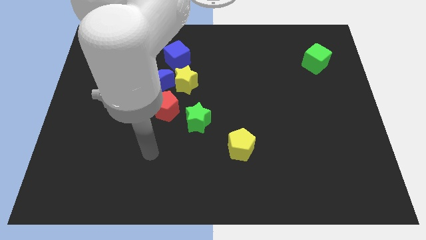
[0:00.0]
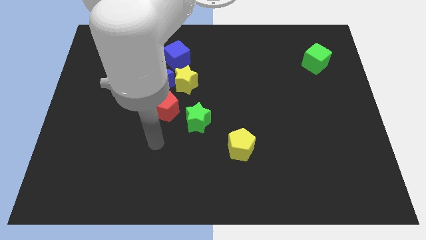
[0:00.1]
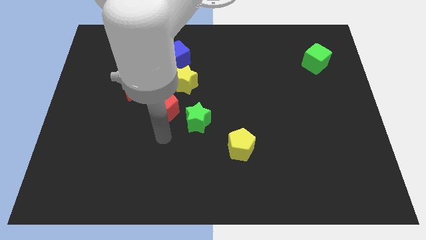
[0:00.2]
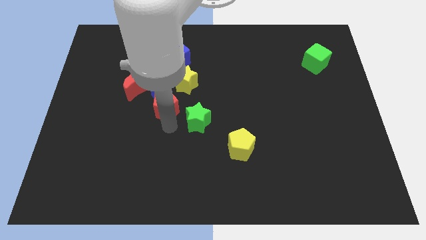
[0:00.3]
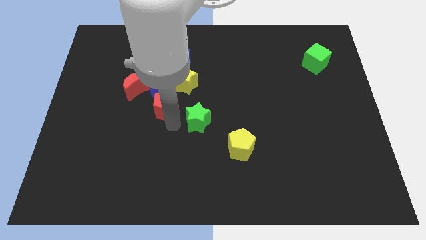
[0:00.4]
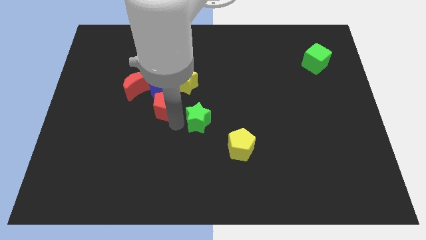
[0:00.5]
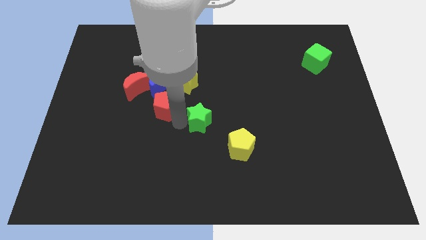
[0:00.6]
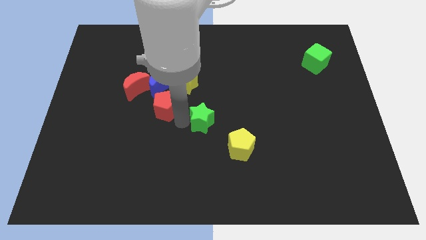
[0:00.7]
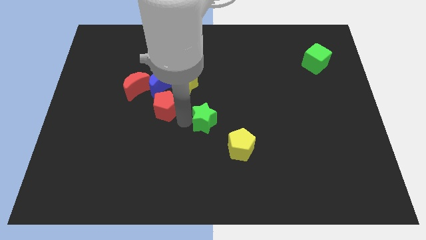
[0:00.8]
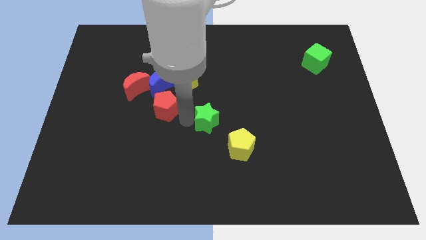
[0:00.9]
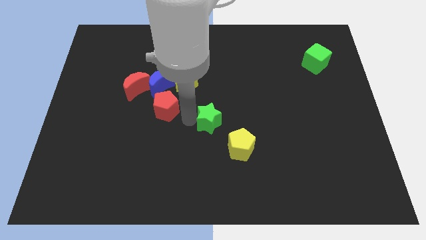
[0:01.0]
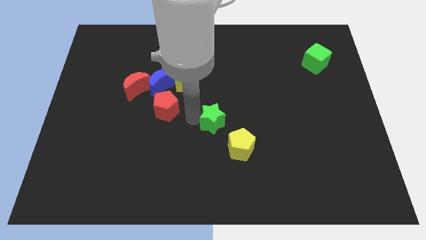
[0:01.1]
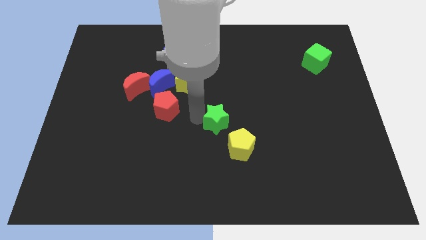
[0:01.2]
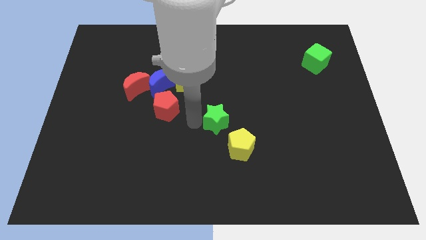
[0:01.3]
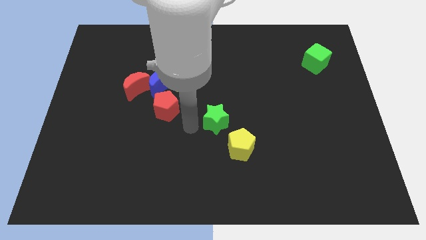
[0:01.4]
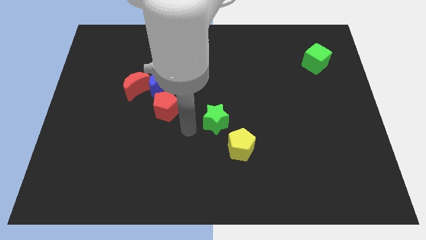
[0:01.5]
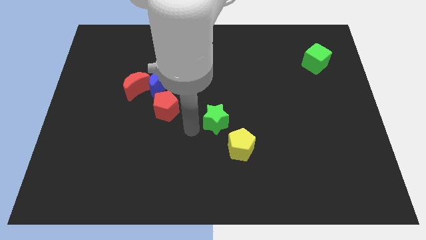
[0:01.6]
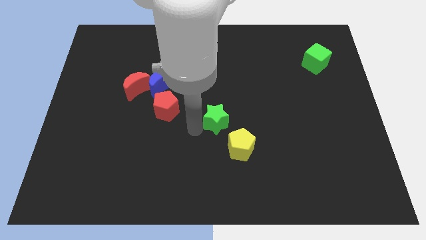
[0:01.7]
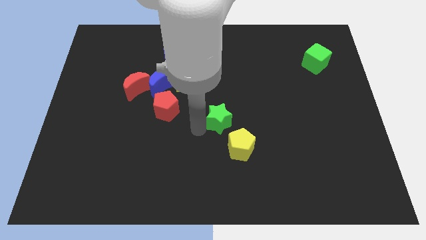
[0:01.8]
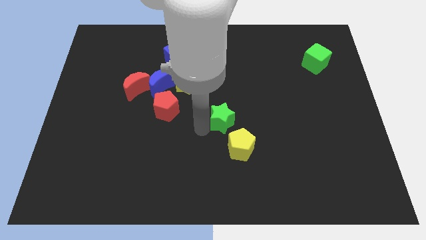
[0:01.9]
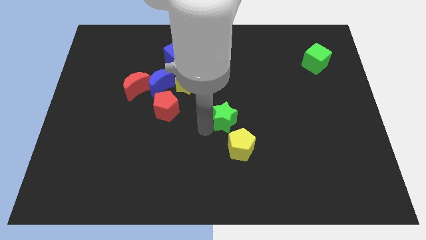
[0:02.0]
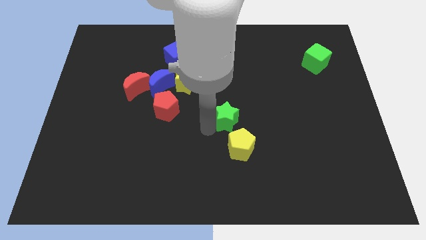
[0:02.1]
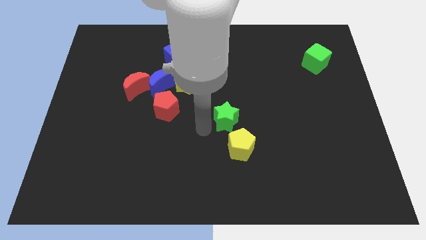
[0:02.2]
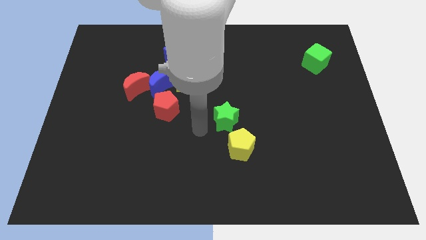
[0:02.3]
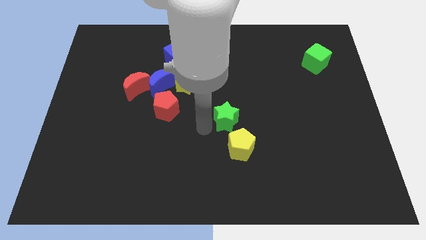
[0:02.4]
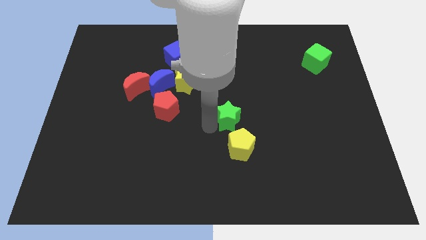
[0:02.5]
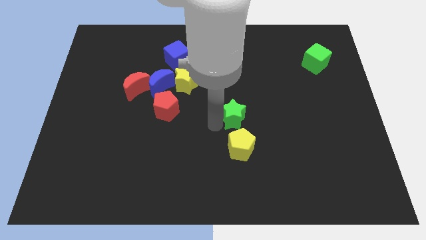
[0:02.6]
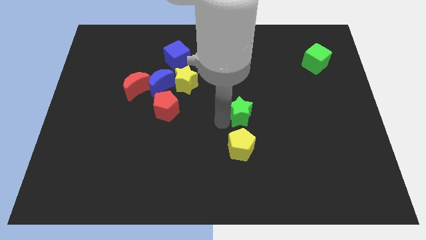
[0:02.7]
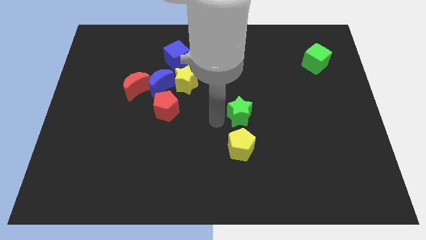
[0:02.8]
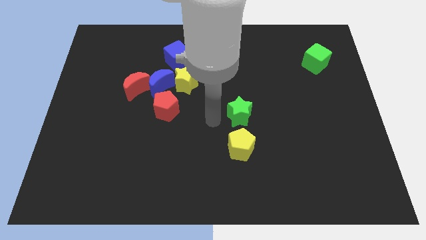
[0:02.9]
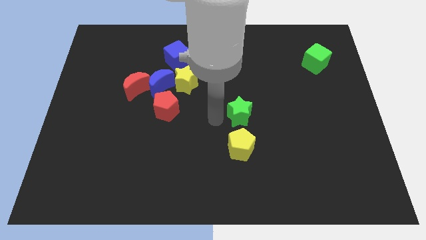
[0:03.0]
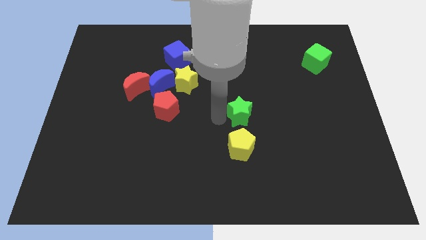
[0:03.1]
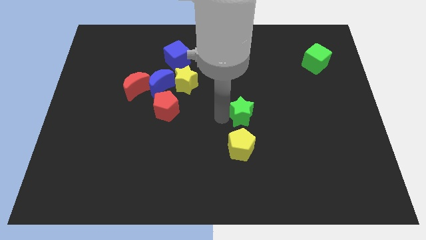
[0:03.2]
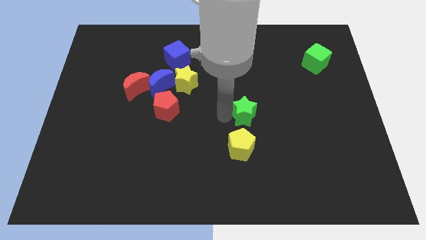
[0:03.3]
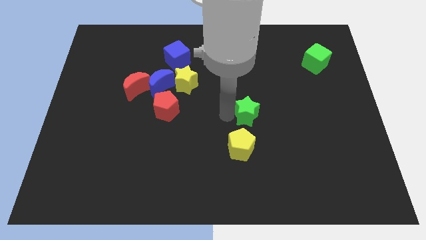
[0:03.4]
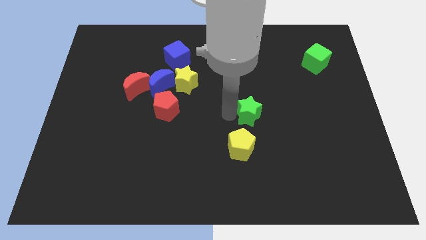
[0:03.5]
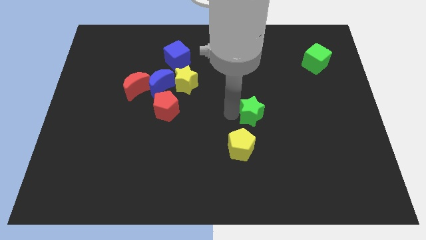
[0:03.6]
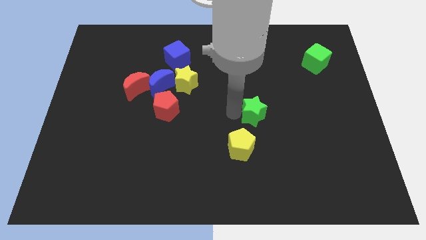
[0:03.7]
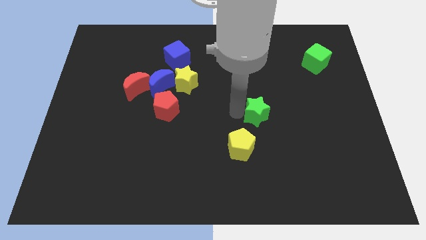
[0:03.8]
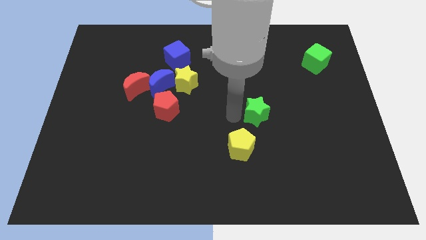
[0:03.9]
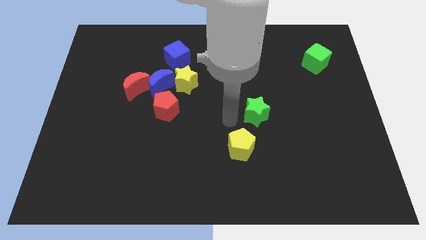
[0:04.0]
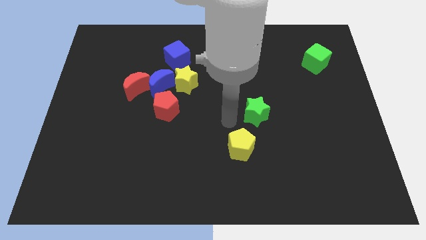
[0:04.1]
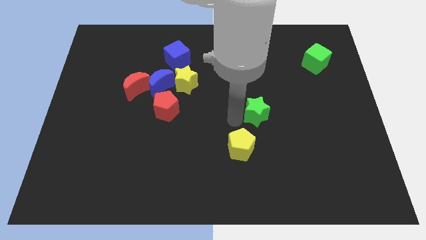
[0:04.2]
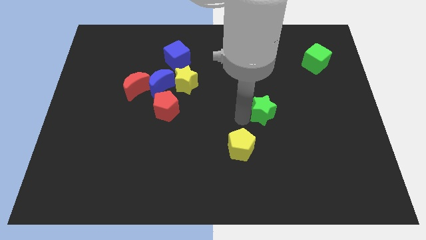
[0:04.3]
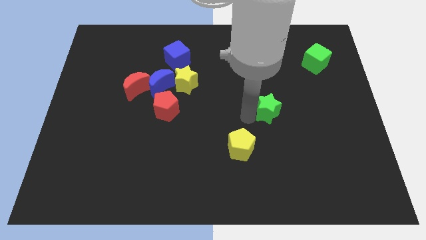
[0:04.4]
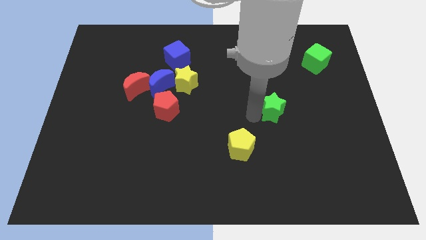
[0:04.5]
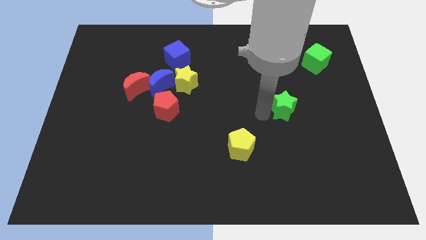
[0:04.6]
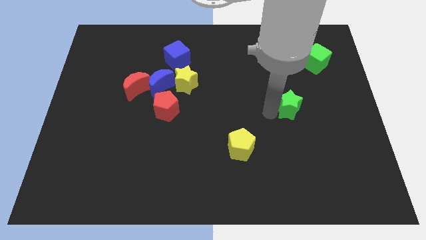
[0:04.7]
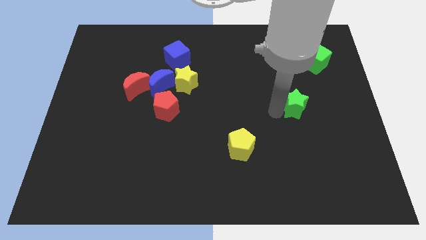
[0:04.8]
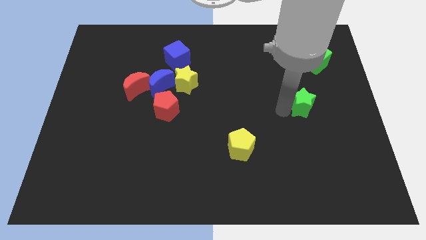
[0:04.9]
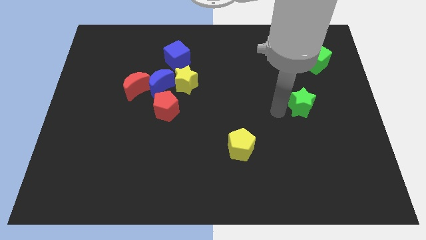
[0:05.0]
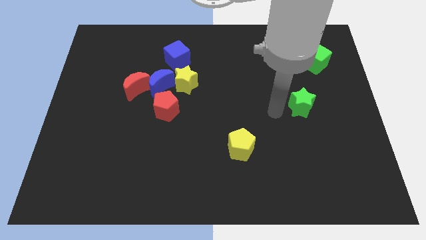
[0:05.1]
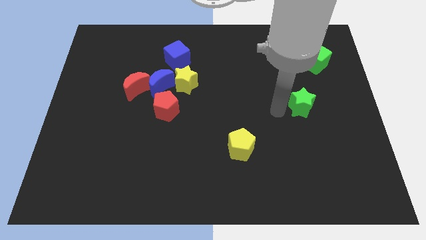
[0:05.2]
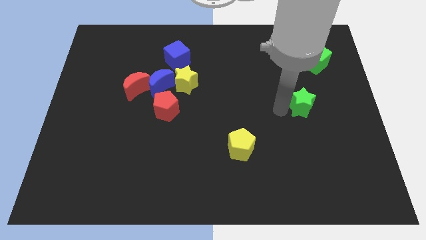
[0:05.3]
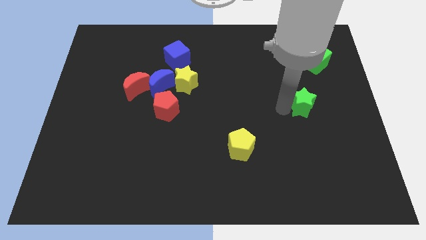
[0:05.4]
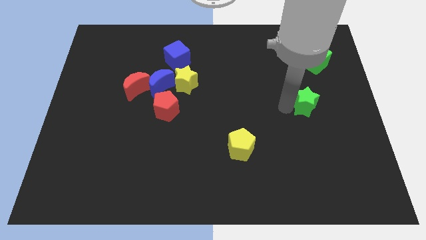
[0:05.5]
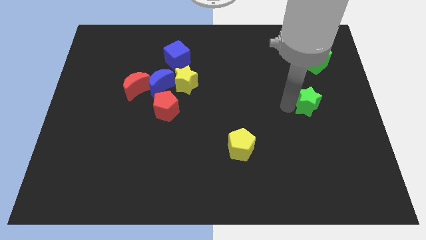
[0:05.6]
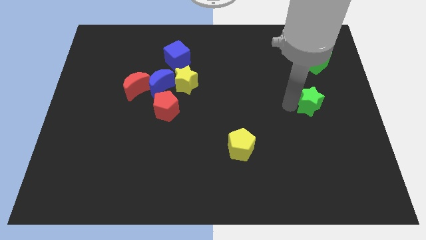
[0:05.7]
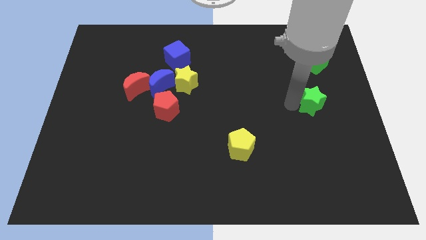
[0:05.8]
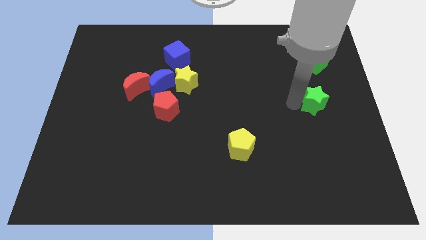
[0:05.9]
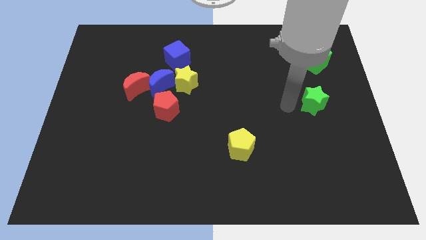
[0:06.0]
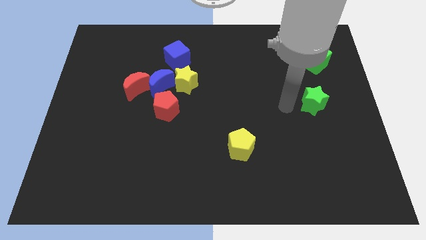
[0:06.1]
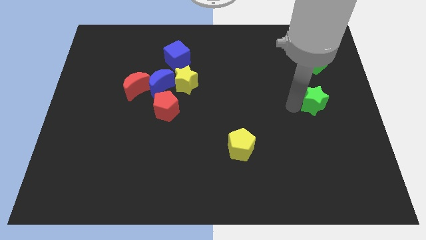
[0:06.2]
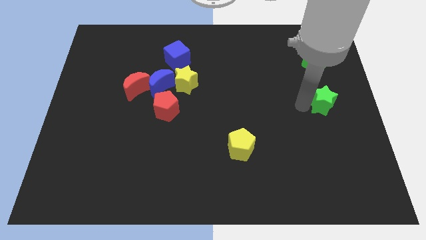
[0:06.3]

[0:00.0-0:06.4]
slide the green star to the center right

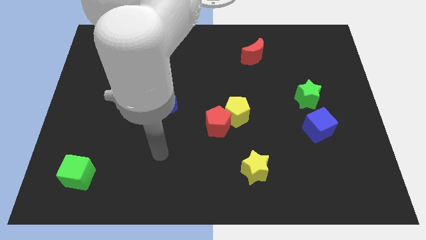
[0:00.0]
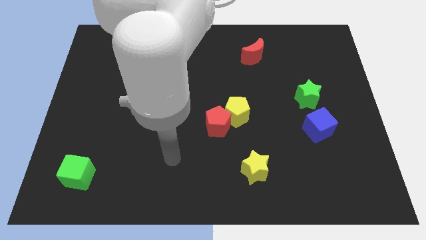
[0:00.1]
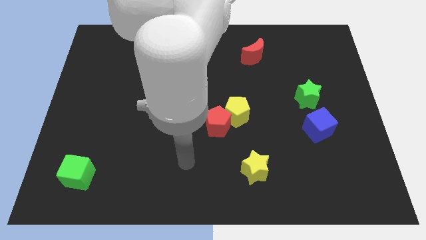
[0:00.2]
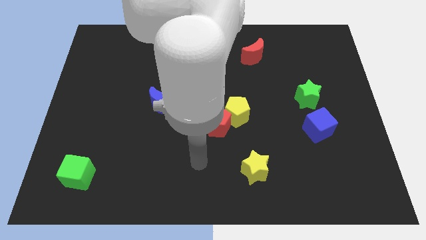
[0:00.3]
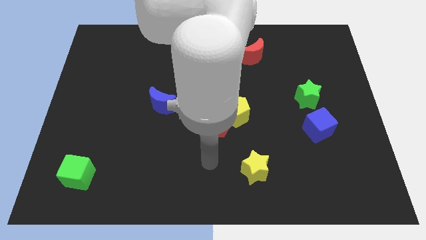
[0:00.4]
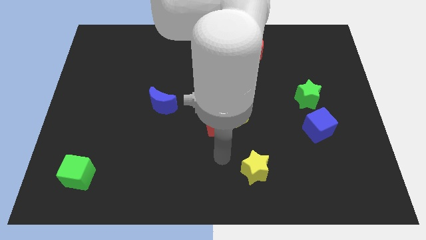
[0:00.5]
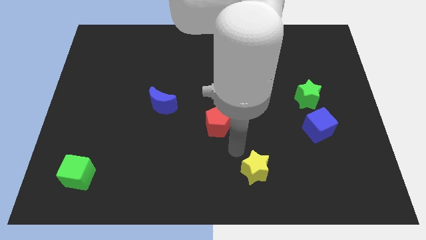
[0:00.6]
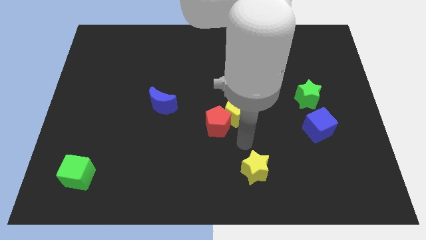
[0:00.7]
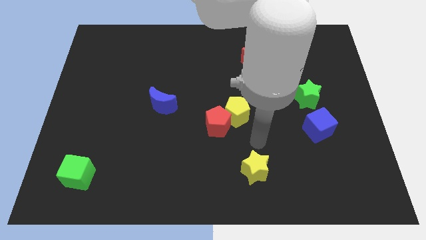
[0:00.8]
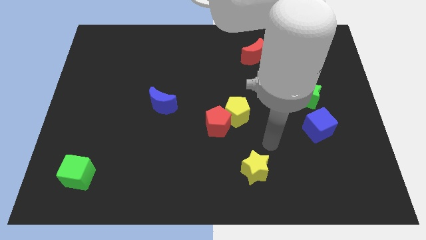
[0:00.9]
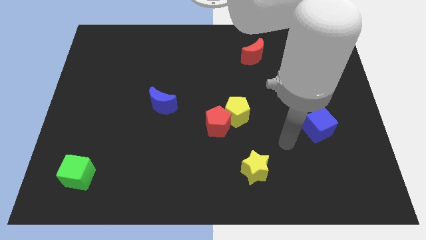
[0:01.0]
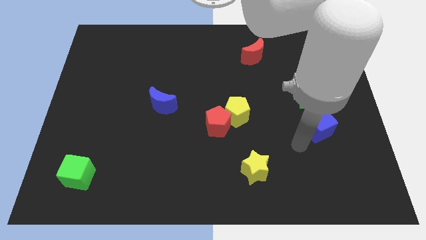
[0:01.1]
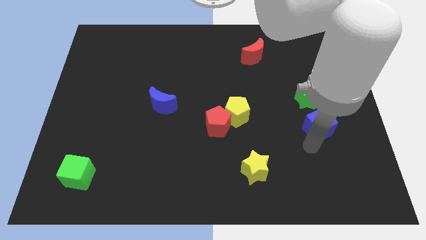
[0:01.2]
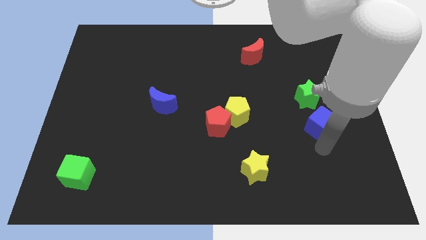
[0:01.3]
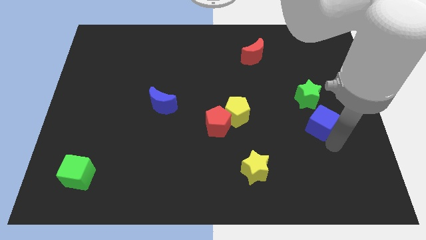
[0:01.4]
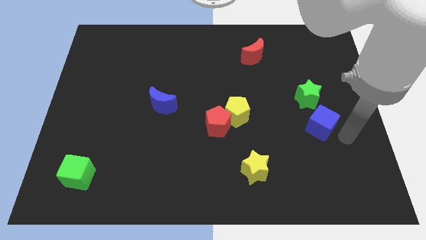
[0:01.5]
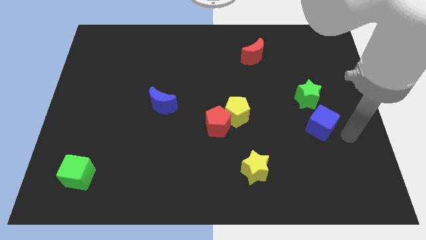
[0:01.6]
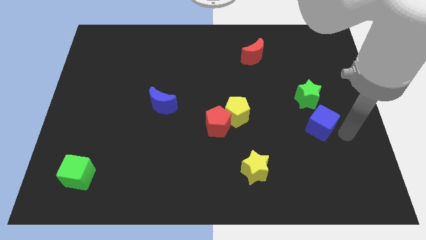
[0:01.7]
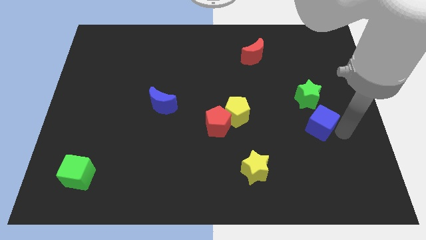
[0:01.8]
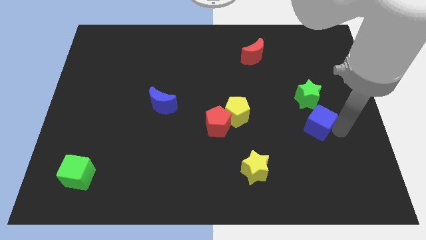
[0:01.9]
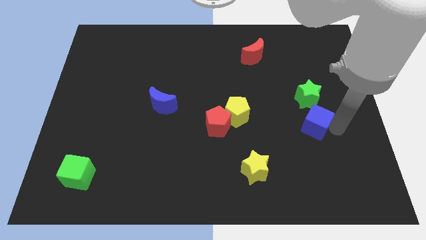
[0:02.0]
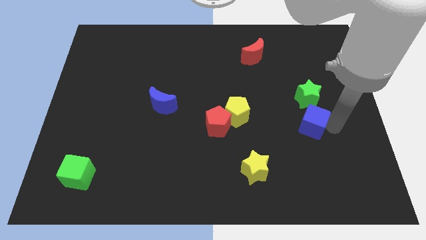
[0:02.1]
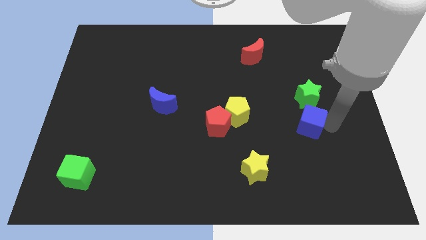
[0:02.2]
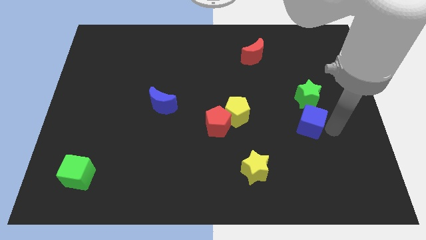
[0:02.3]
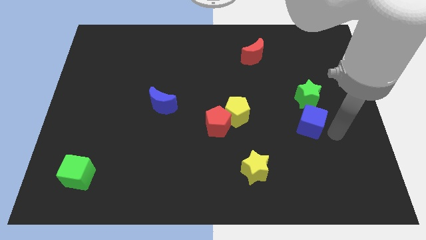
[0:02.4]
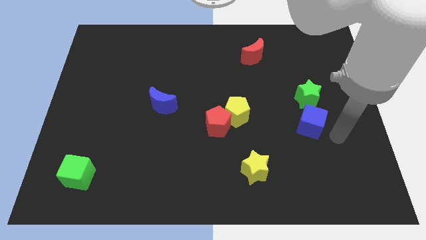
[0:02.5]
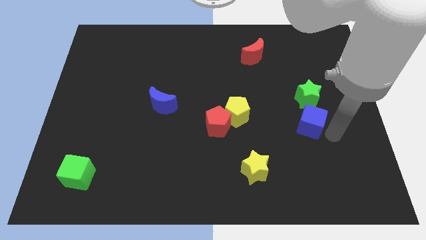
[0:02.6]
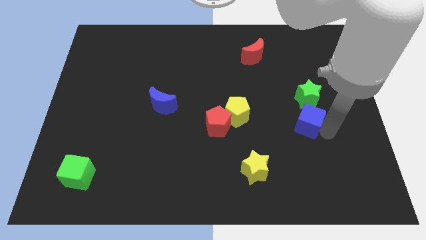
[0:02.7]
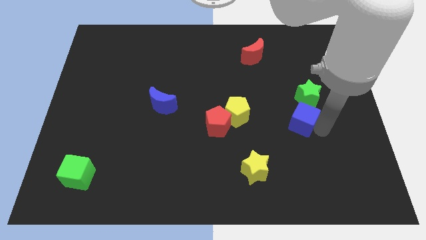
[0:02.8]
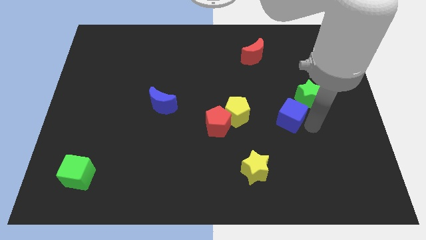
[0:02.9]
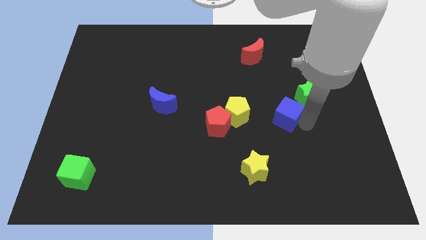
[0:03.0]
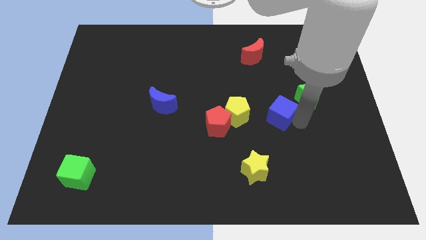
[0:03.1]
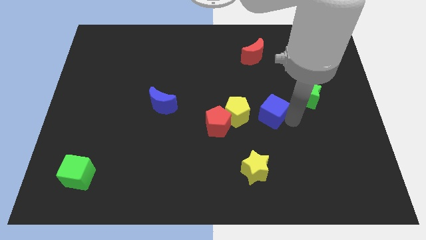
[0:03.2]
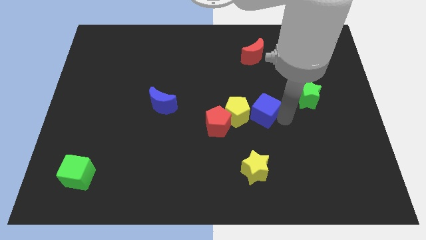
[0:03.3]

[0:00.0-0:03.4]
move the blue cube to the center
